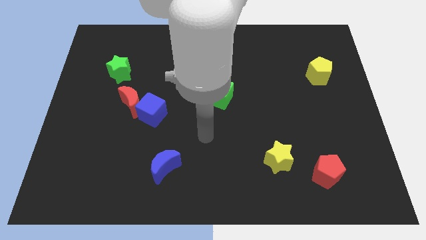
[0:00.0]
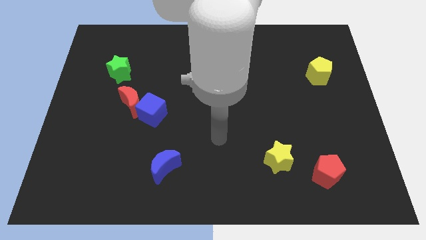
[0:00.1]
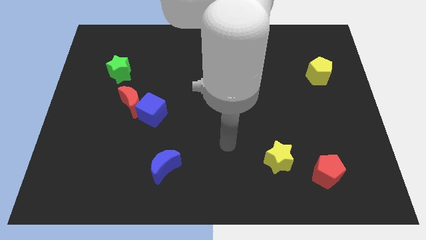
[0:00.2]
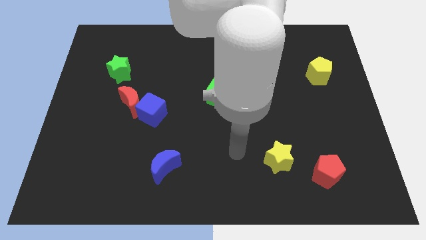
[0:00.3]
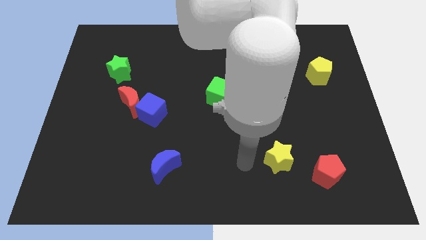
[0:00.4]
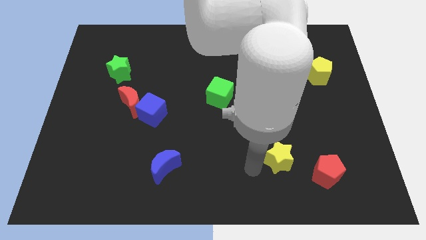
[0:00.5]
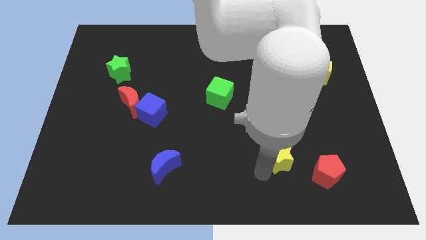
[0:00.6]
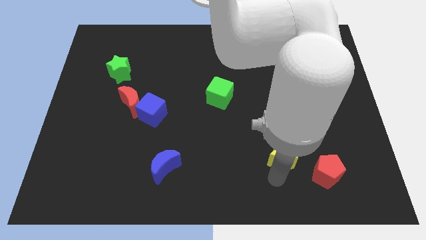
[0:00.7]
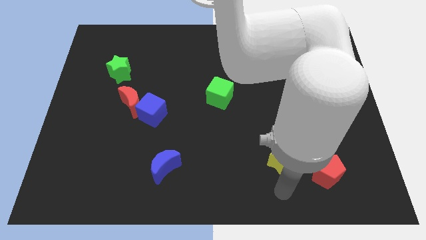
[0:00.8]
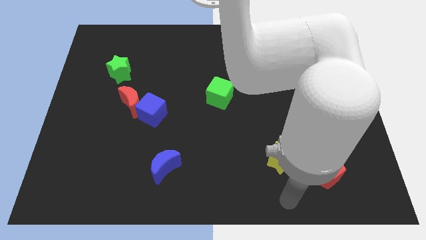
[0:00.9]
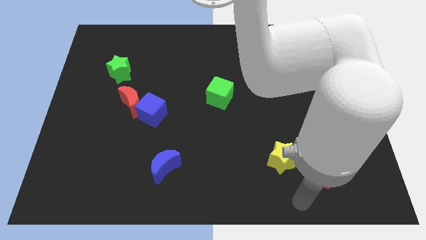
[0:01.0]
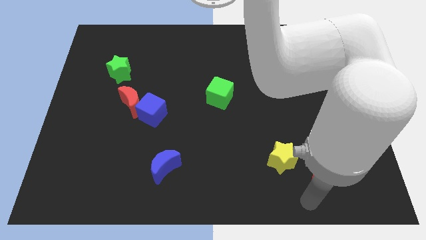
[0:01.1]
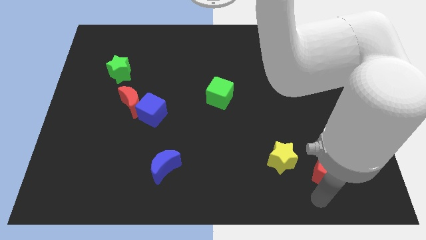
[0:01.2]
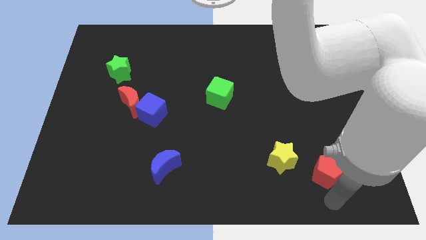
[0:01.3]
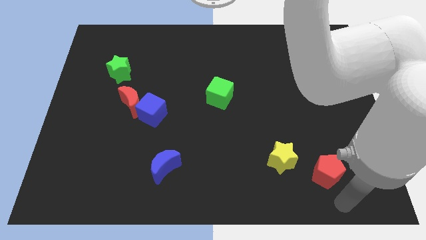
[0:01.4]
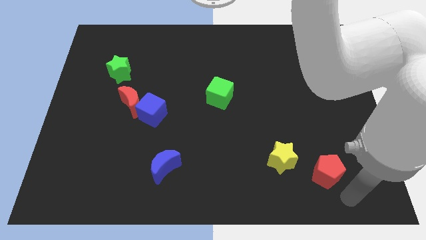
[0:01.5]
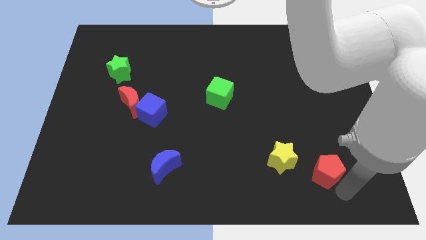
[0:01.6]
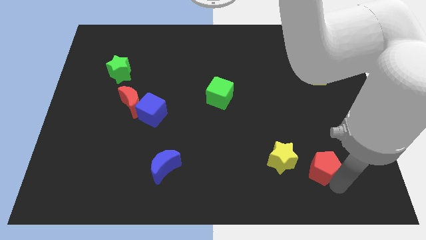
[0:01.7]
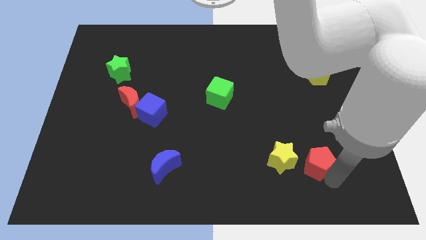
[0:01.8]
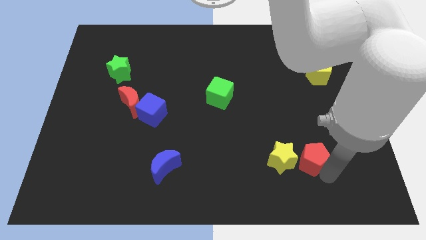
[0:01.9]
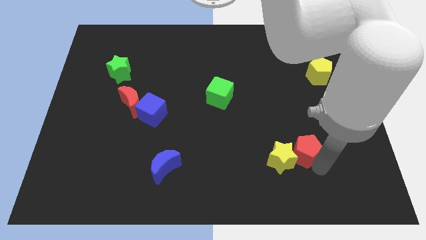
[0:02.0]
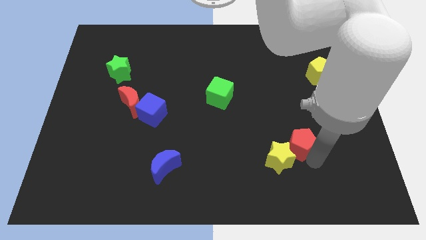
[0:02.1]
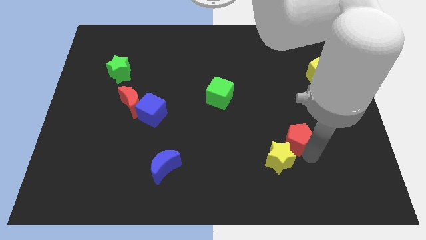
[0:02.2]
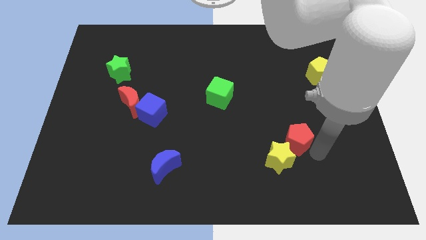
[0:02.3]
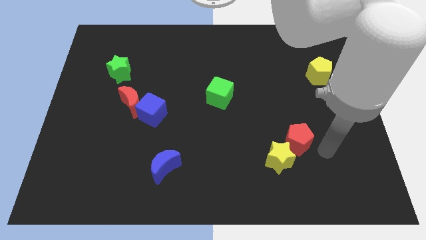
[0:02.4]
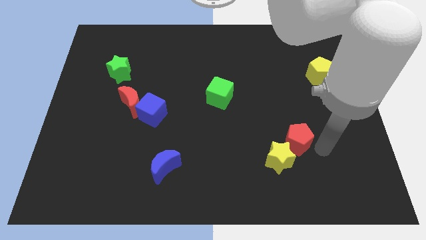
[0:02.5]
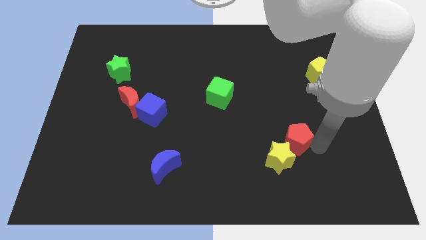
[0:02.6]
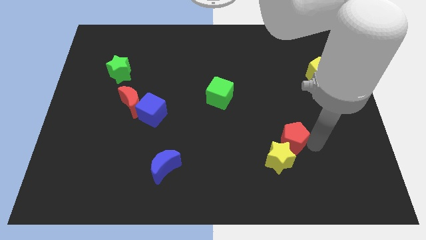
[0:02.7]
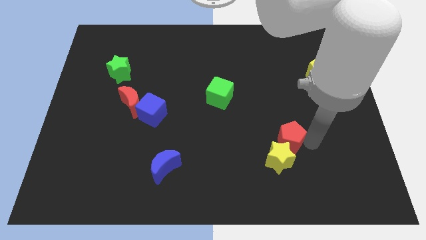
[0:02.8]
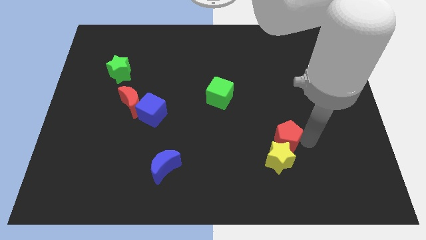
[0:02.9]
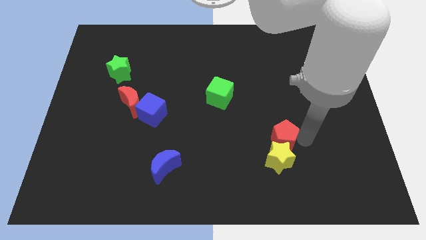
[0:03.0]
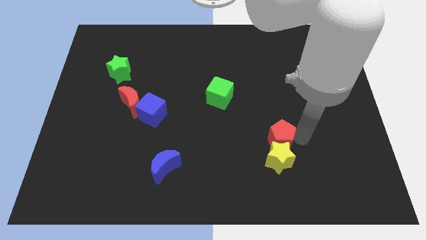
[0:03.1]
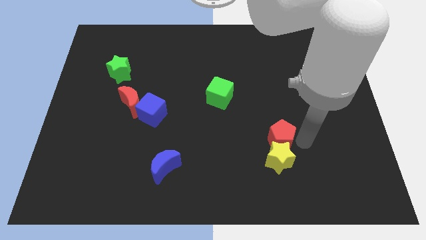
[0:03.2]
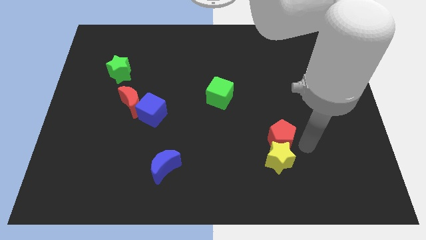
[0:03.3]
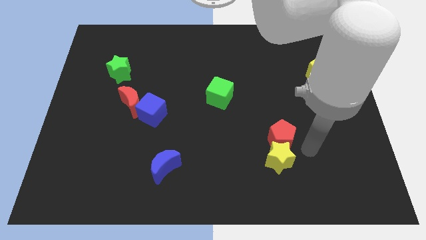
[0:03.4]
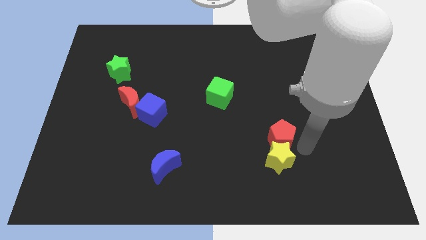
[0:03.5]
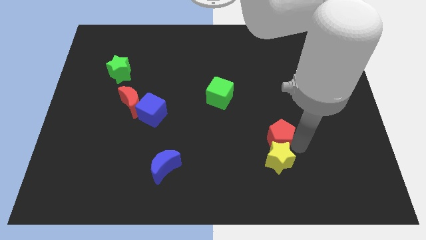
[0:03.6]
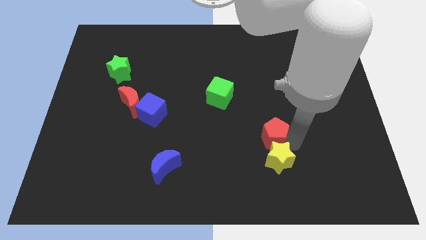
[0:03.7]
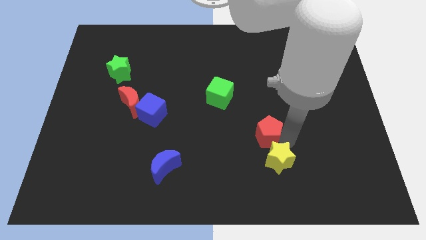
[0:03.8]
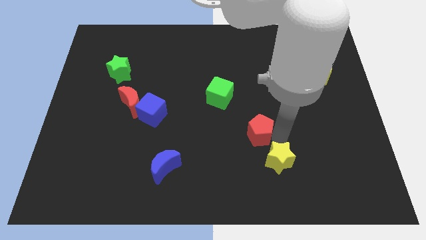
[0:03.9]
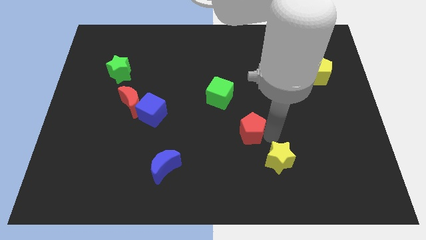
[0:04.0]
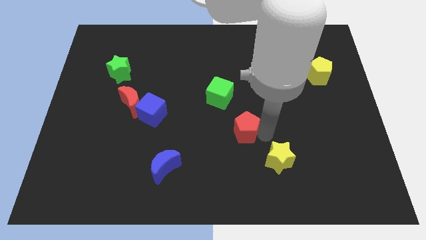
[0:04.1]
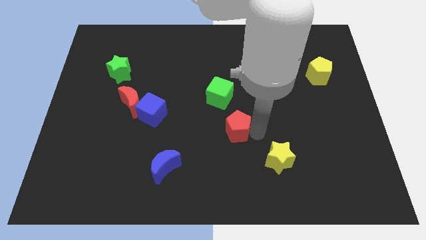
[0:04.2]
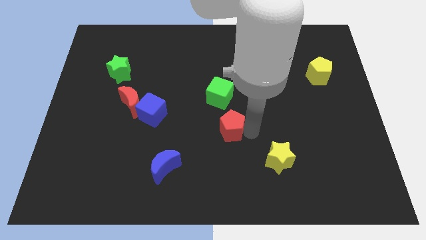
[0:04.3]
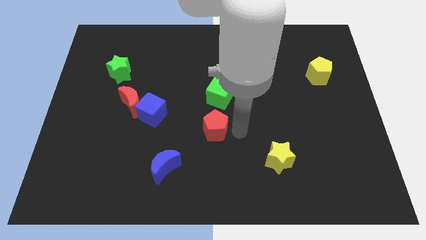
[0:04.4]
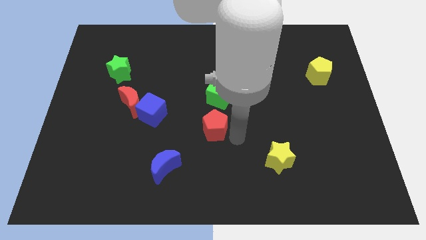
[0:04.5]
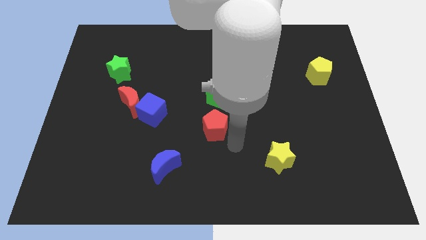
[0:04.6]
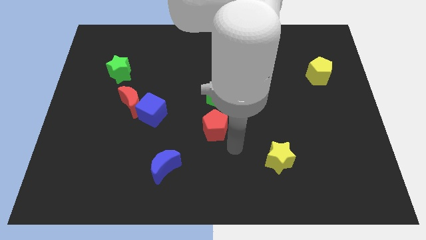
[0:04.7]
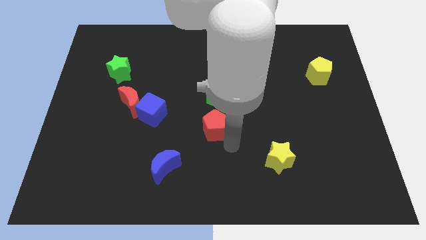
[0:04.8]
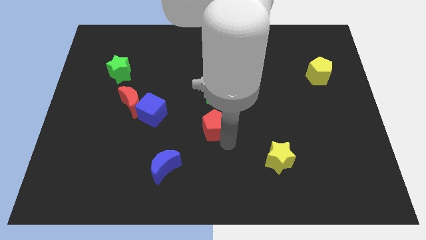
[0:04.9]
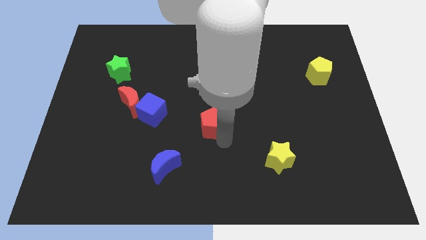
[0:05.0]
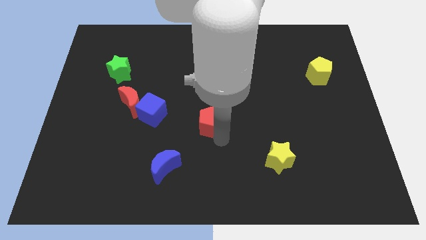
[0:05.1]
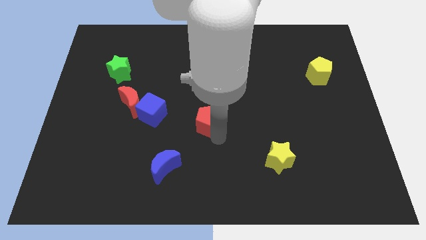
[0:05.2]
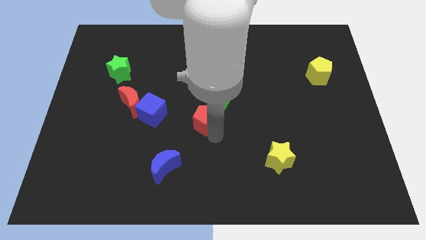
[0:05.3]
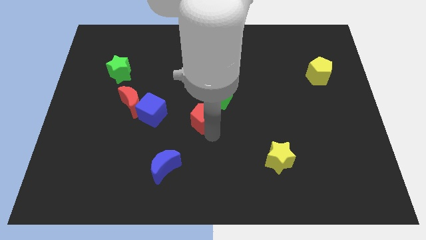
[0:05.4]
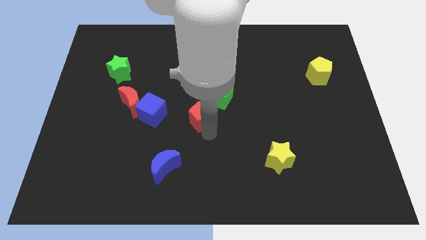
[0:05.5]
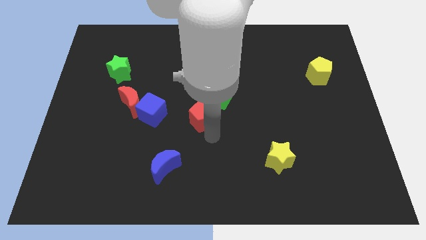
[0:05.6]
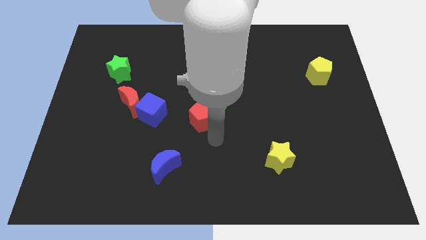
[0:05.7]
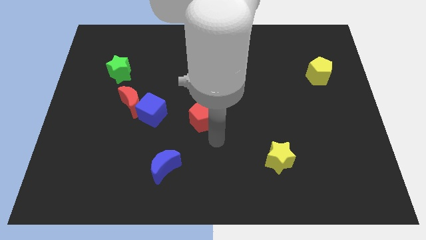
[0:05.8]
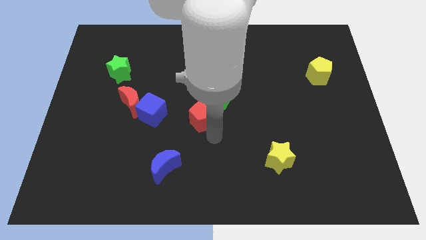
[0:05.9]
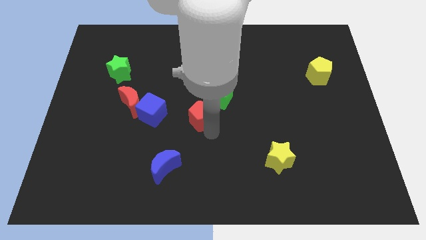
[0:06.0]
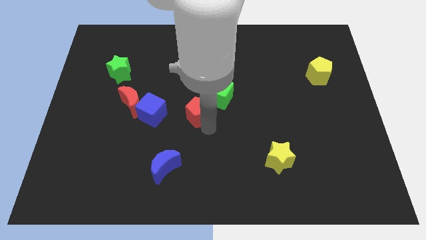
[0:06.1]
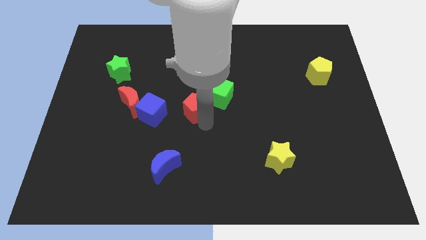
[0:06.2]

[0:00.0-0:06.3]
move the red pentagon to the left side of the green cube
